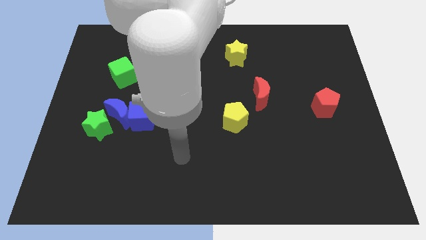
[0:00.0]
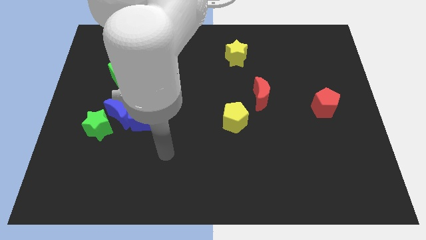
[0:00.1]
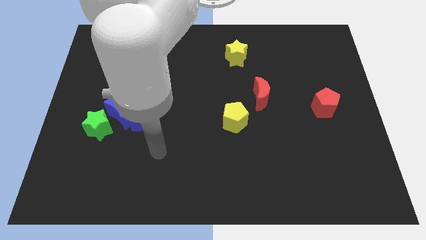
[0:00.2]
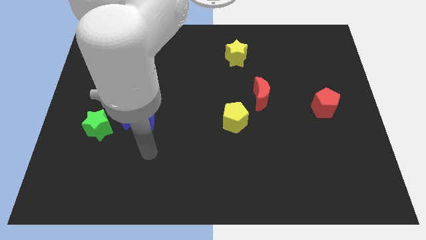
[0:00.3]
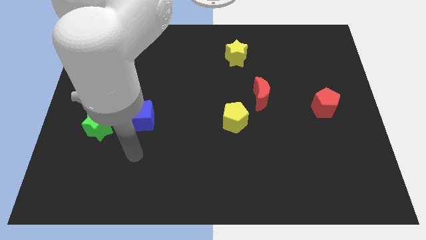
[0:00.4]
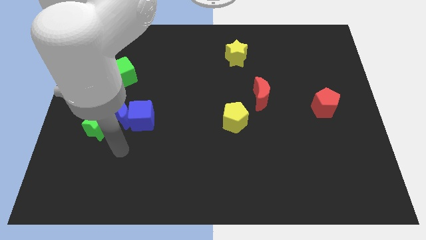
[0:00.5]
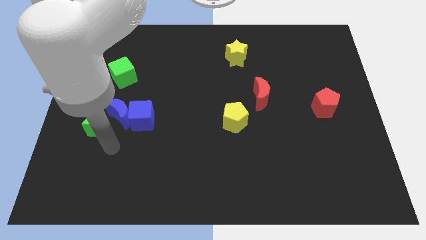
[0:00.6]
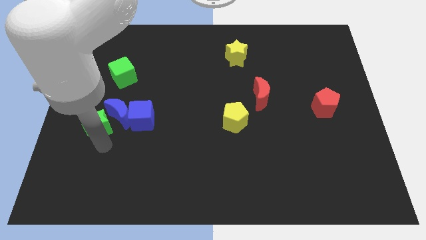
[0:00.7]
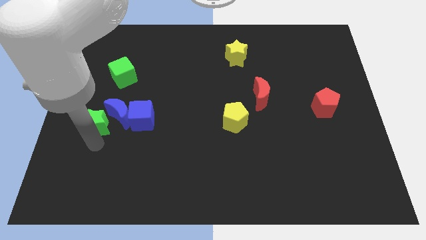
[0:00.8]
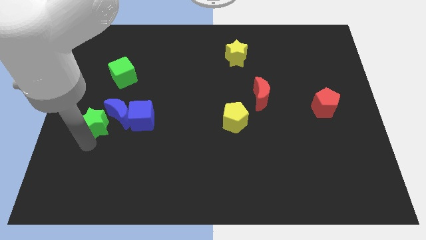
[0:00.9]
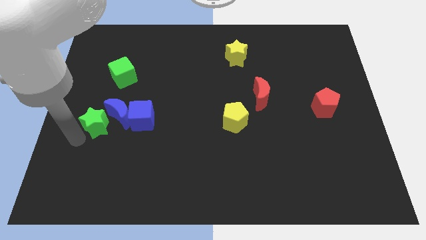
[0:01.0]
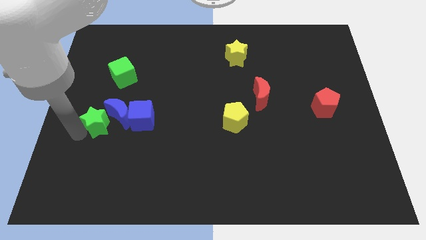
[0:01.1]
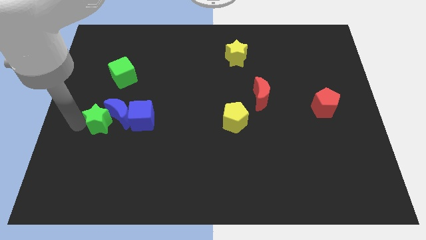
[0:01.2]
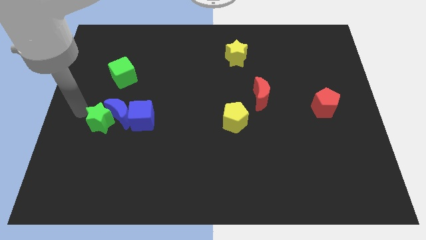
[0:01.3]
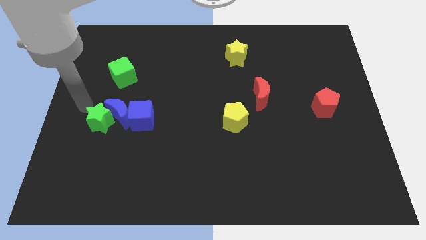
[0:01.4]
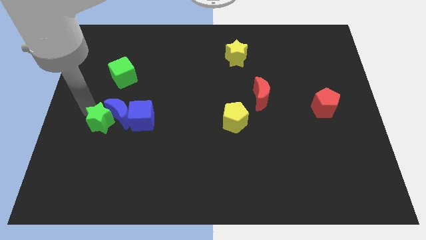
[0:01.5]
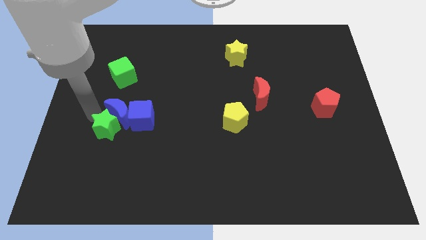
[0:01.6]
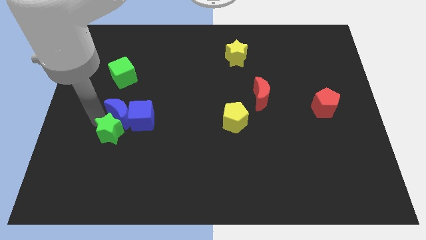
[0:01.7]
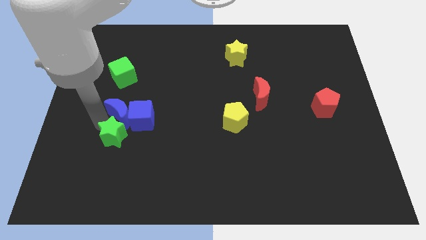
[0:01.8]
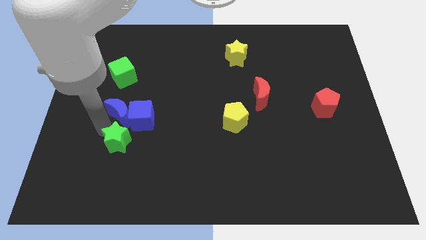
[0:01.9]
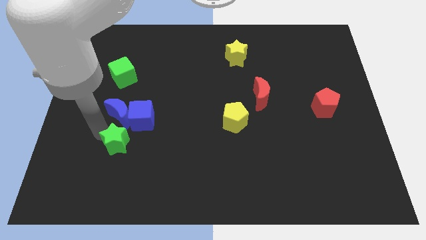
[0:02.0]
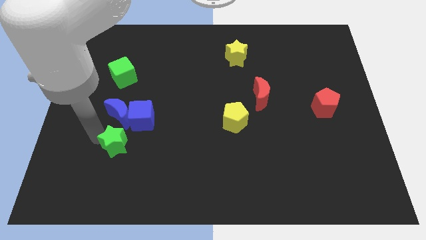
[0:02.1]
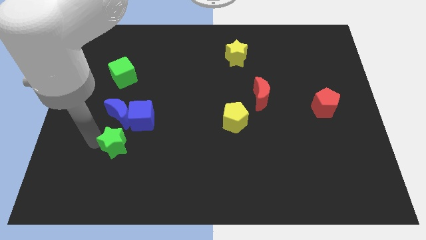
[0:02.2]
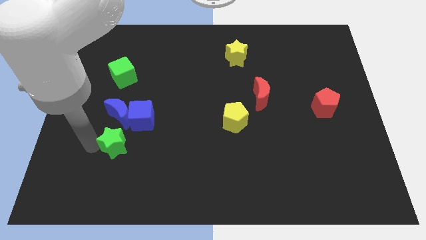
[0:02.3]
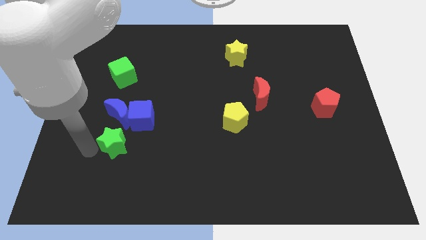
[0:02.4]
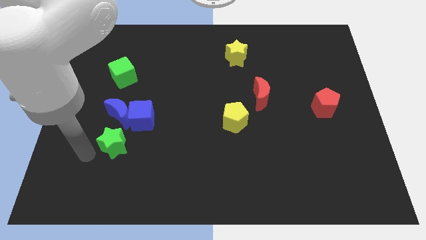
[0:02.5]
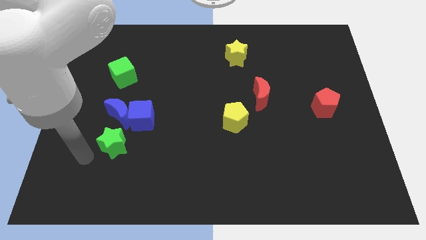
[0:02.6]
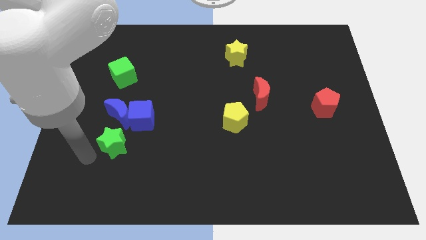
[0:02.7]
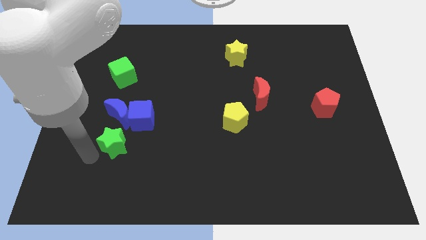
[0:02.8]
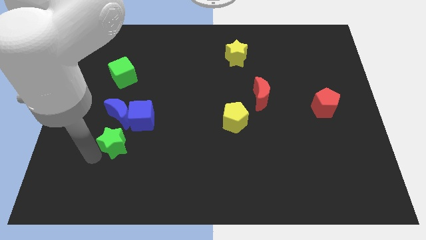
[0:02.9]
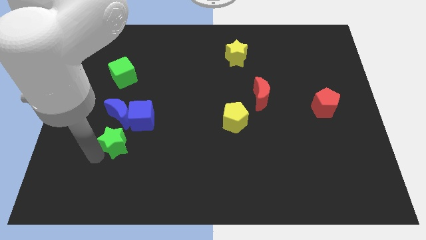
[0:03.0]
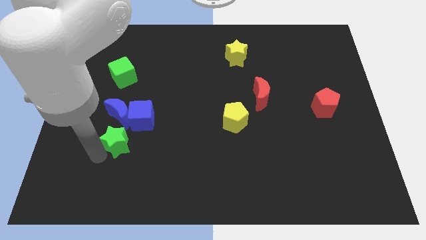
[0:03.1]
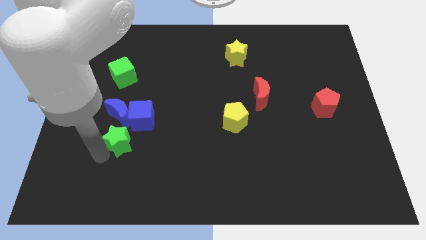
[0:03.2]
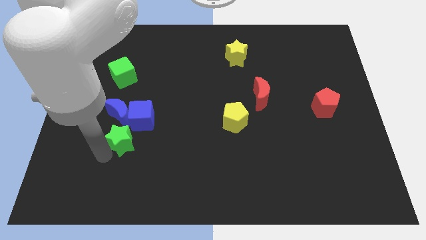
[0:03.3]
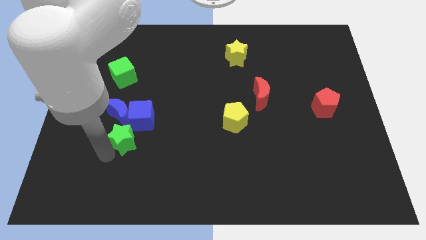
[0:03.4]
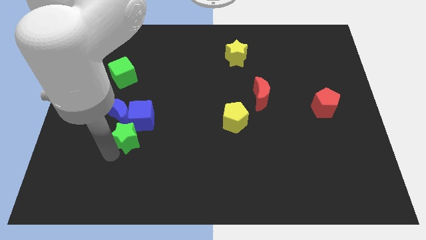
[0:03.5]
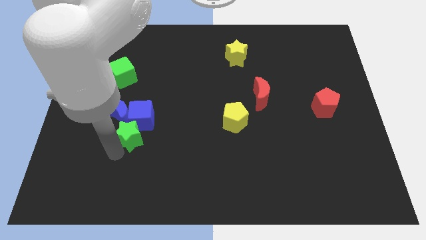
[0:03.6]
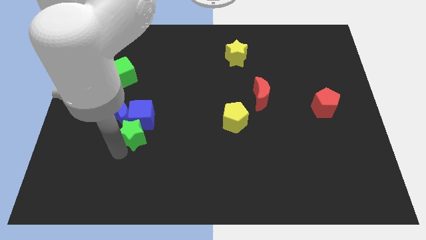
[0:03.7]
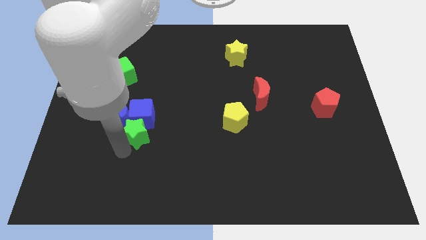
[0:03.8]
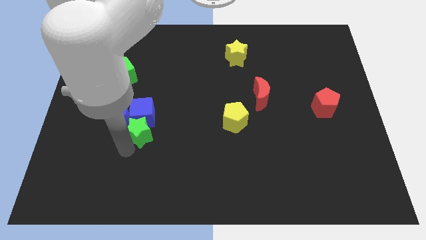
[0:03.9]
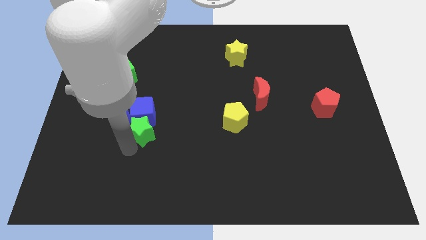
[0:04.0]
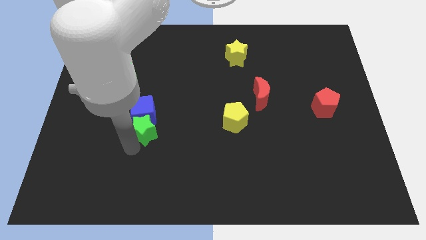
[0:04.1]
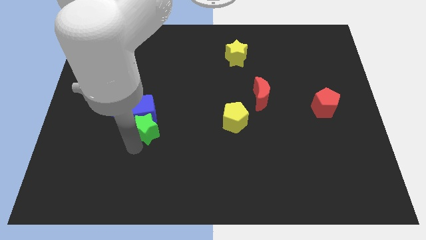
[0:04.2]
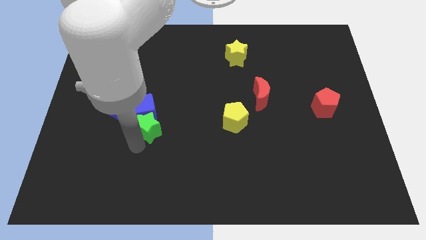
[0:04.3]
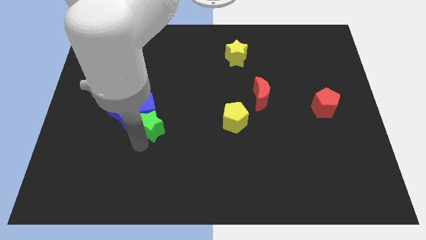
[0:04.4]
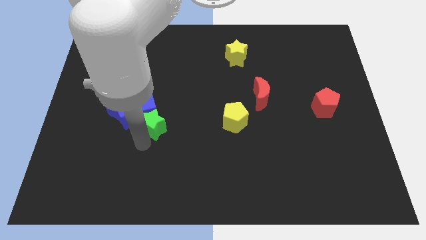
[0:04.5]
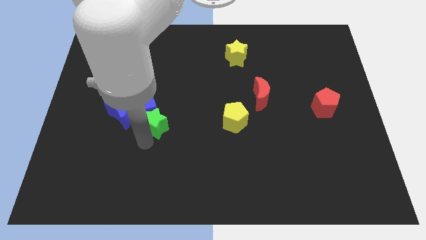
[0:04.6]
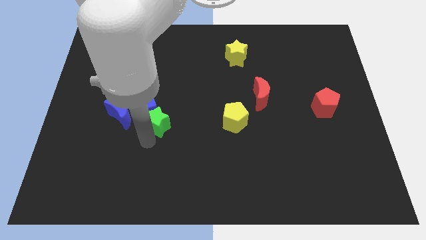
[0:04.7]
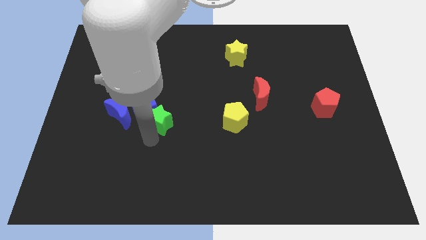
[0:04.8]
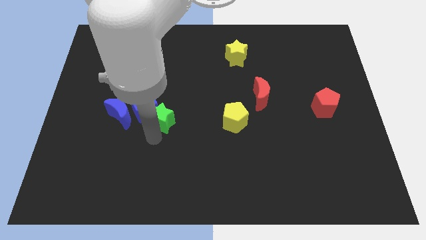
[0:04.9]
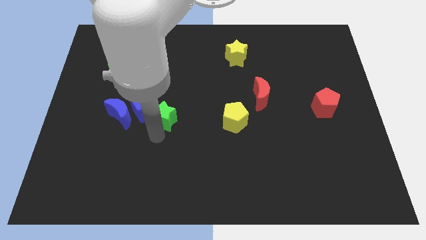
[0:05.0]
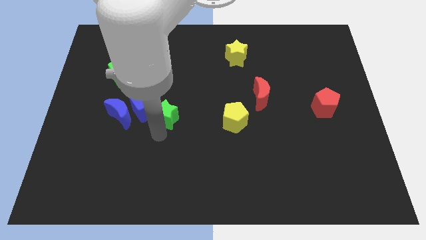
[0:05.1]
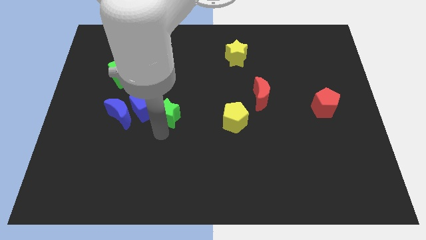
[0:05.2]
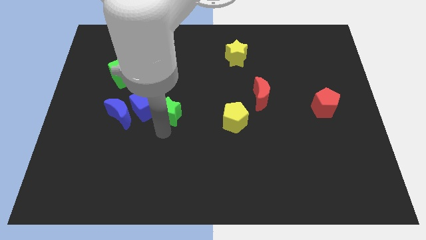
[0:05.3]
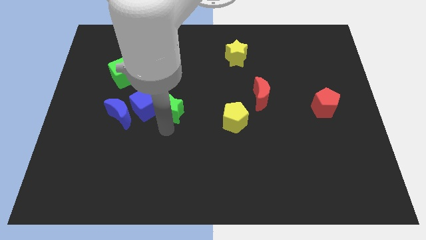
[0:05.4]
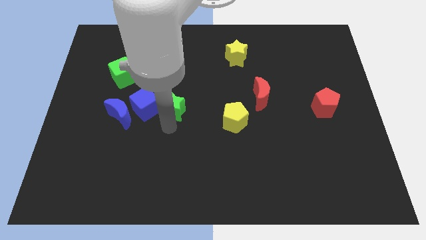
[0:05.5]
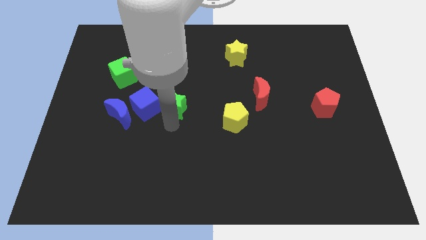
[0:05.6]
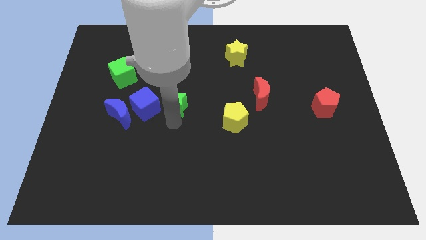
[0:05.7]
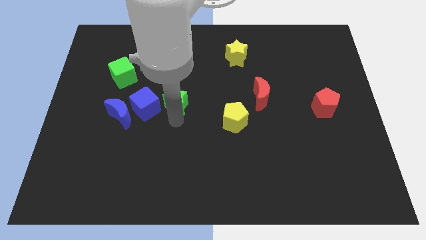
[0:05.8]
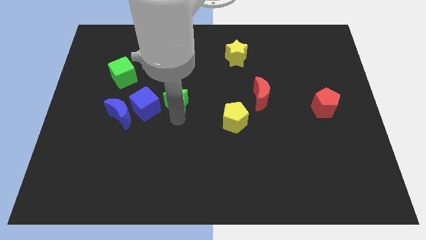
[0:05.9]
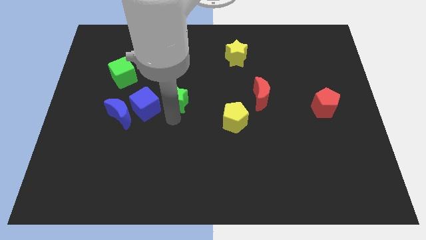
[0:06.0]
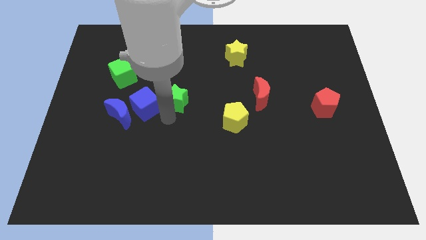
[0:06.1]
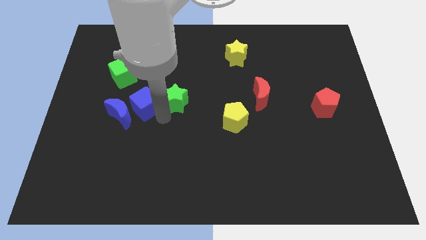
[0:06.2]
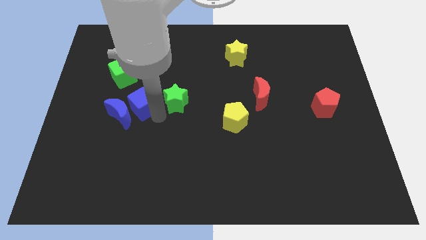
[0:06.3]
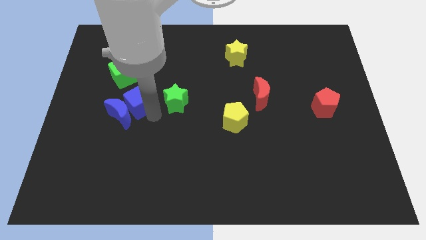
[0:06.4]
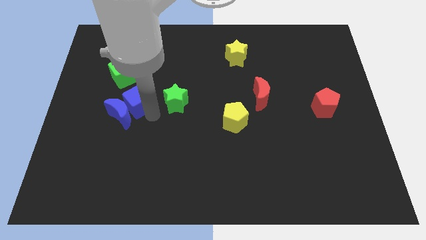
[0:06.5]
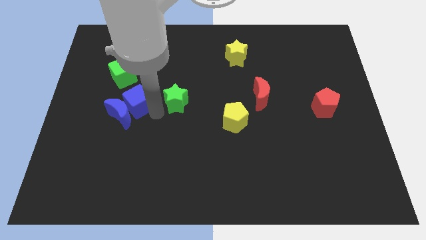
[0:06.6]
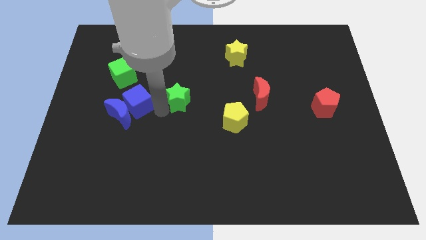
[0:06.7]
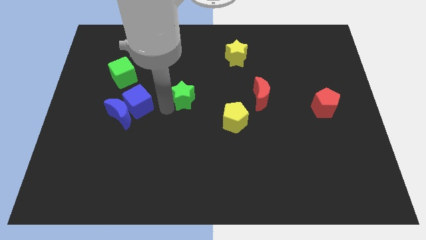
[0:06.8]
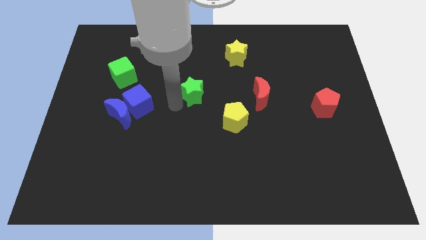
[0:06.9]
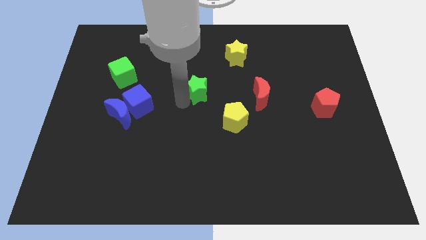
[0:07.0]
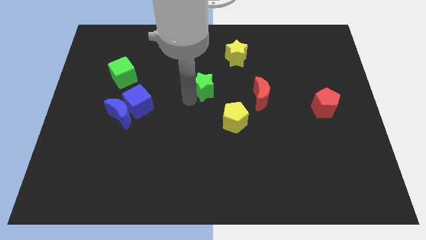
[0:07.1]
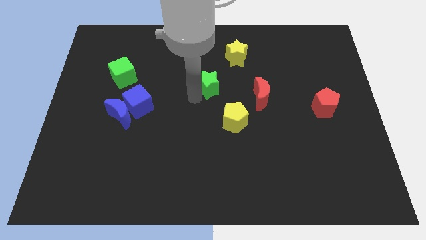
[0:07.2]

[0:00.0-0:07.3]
push the green star to the bottom left side of the yellow star

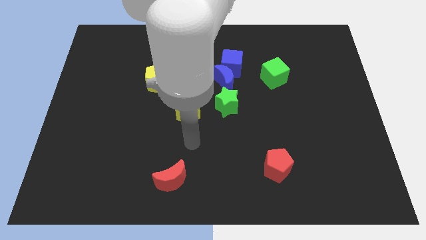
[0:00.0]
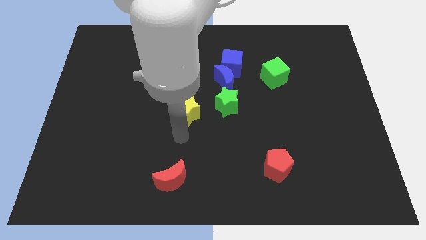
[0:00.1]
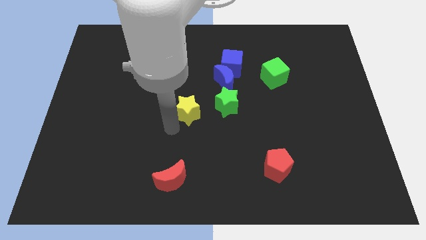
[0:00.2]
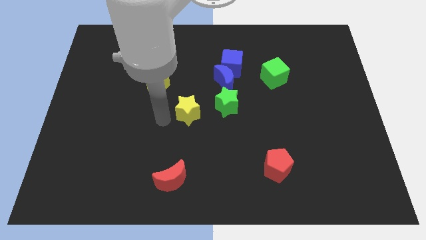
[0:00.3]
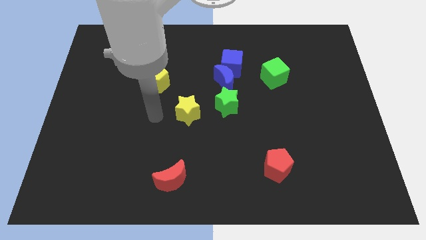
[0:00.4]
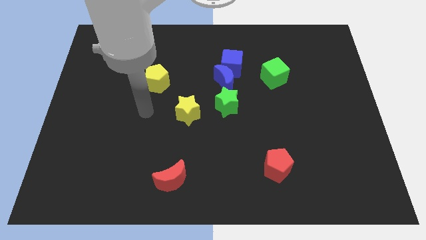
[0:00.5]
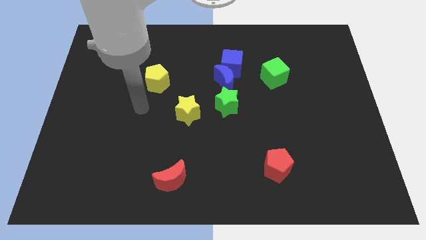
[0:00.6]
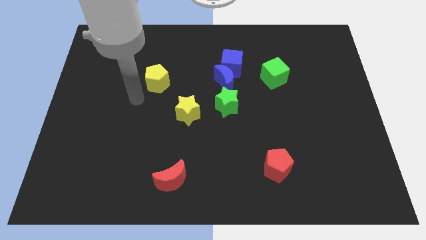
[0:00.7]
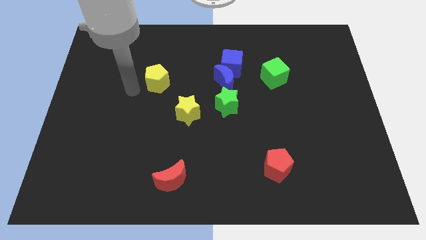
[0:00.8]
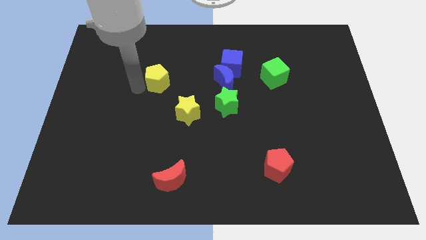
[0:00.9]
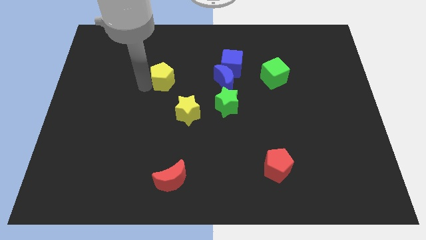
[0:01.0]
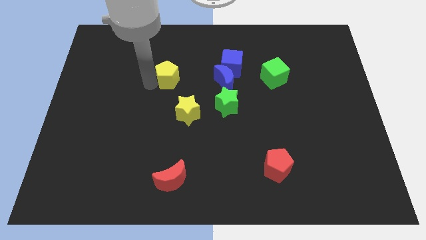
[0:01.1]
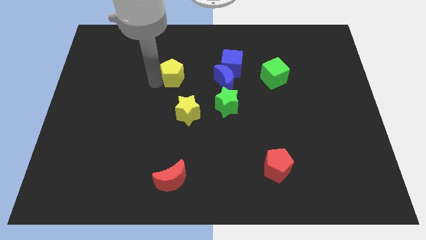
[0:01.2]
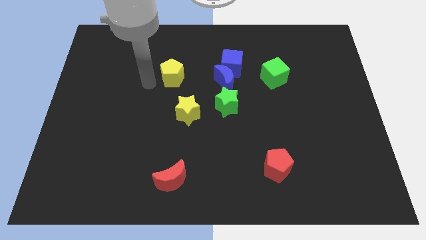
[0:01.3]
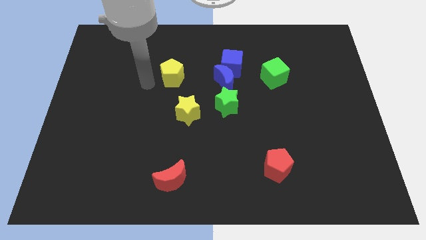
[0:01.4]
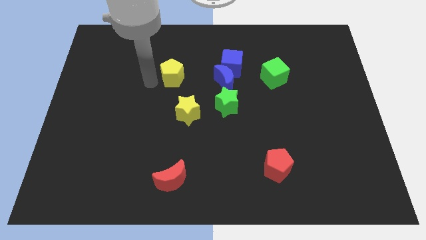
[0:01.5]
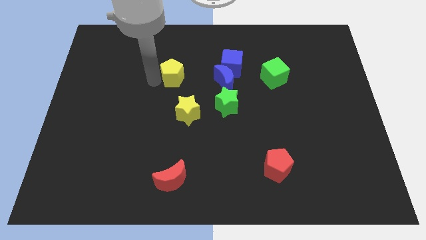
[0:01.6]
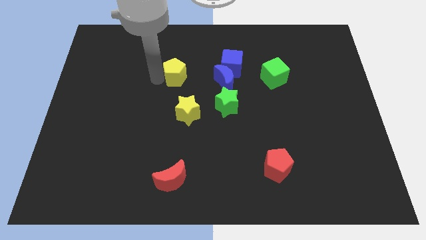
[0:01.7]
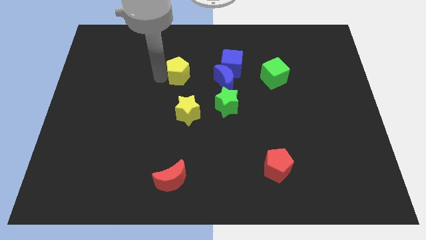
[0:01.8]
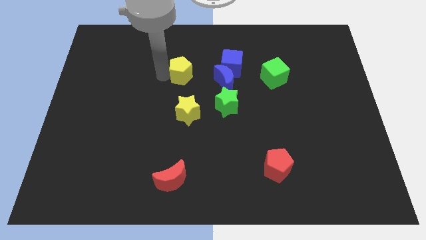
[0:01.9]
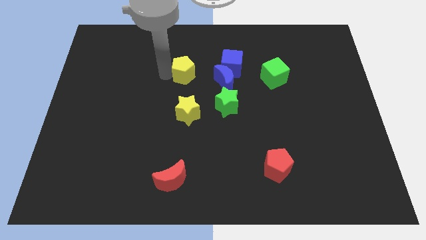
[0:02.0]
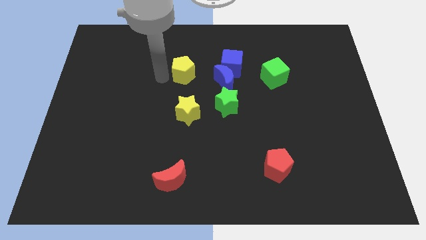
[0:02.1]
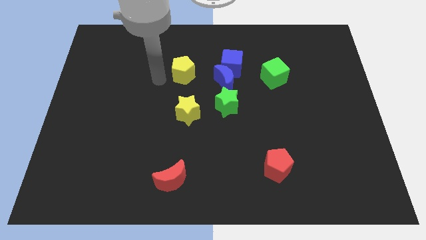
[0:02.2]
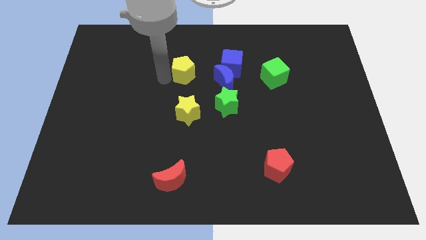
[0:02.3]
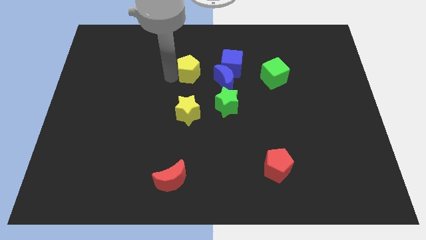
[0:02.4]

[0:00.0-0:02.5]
slide the yellow pentagon to the top left of the blue moon
